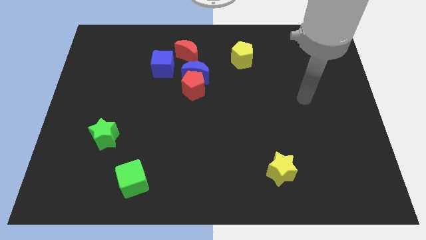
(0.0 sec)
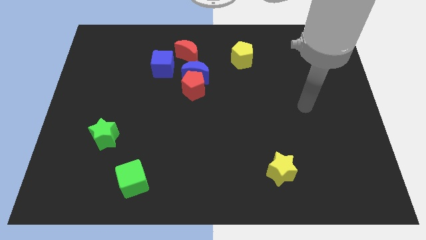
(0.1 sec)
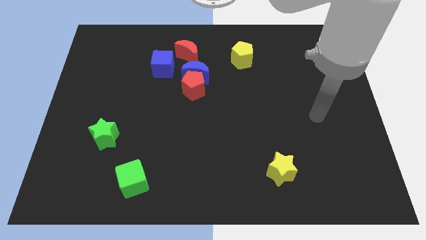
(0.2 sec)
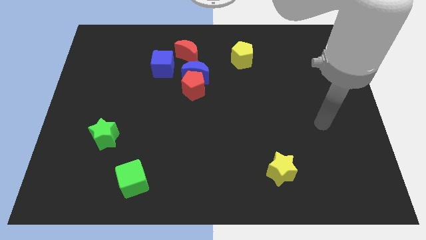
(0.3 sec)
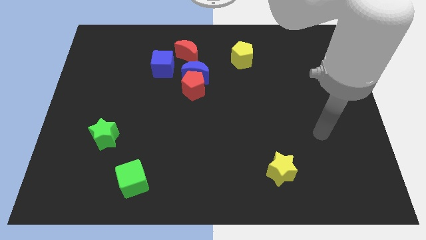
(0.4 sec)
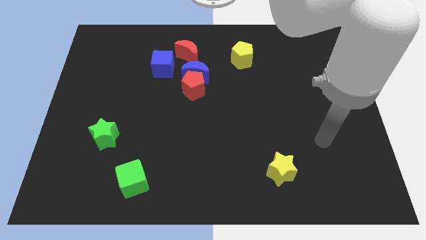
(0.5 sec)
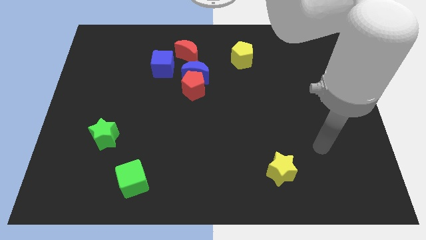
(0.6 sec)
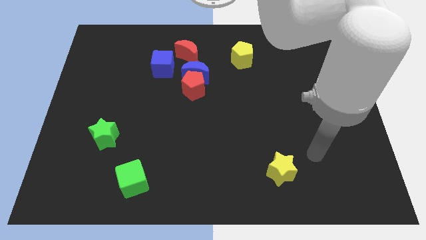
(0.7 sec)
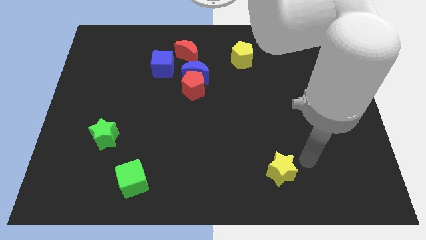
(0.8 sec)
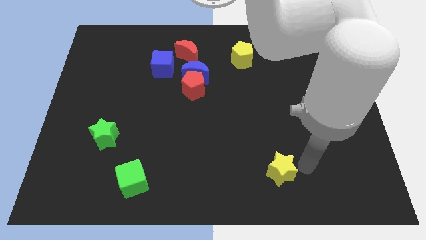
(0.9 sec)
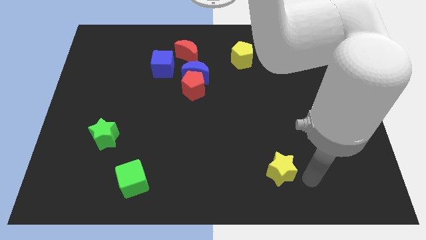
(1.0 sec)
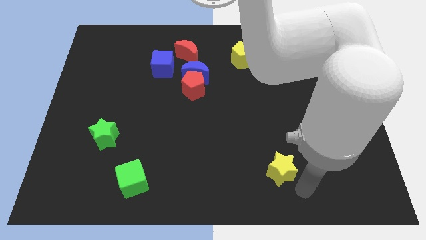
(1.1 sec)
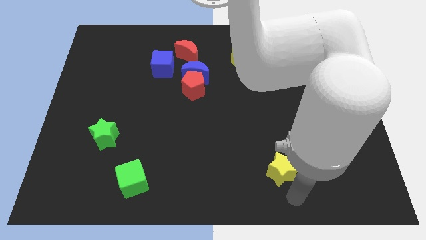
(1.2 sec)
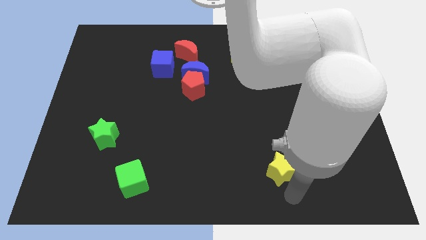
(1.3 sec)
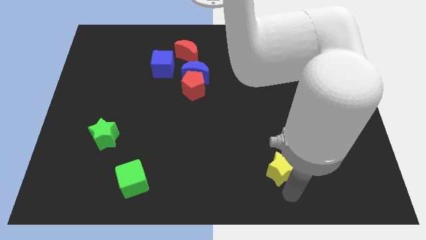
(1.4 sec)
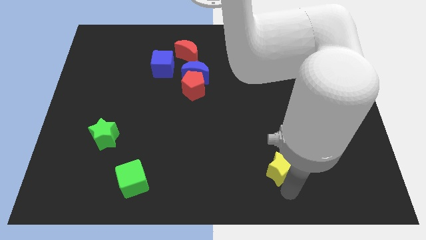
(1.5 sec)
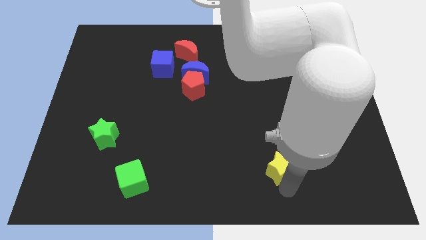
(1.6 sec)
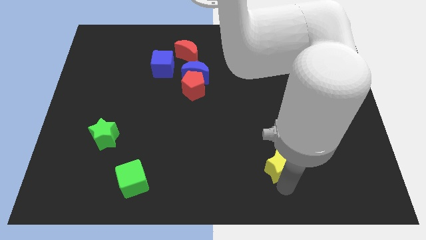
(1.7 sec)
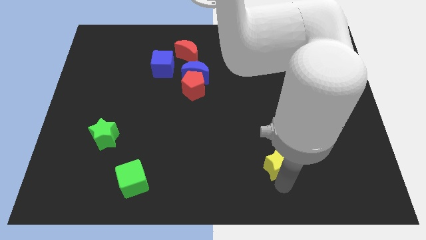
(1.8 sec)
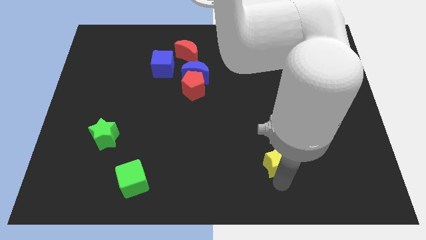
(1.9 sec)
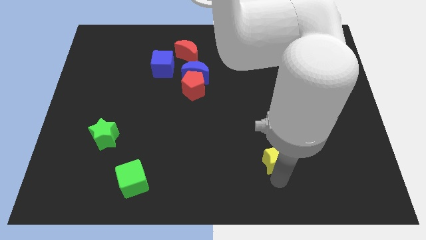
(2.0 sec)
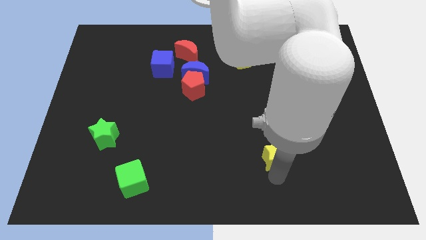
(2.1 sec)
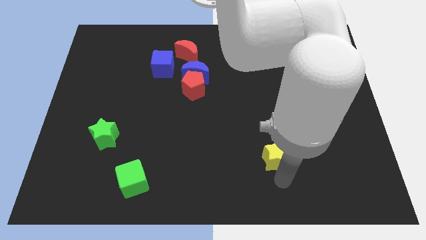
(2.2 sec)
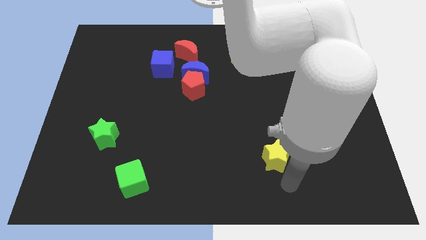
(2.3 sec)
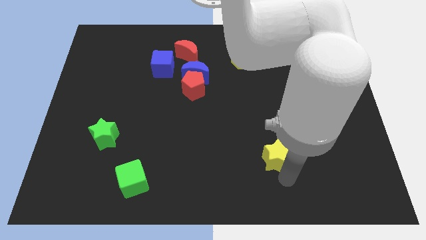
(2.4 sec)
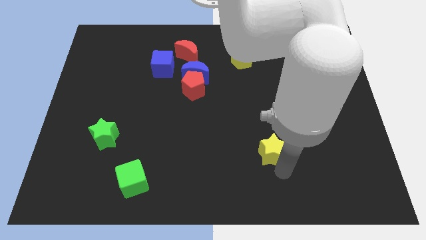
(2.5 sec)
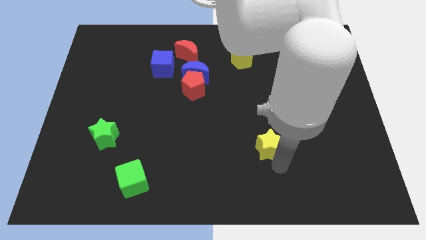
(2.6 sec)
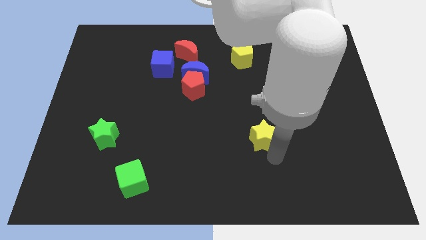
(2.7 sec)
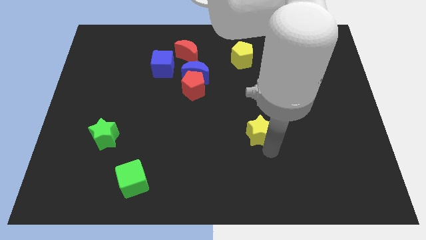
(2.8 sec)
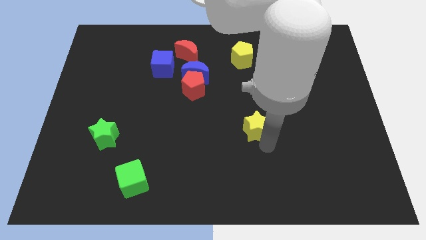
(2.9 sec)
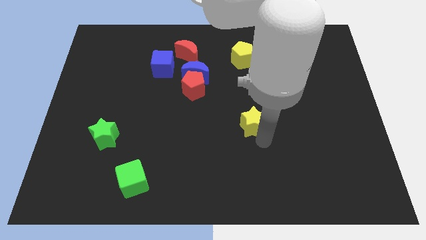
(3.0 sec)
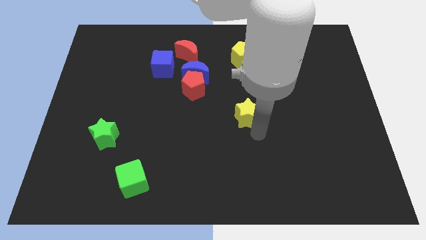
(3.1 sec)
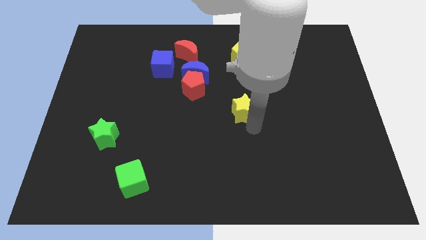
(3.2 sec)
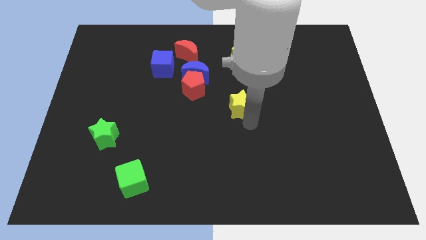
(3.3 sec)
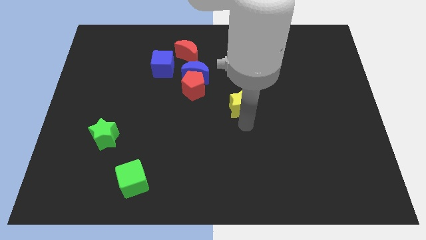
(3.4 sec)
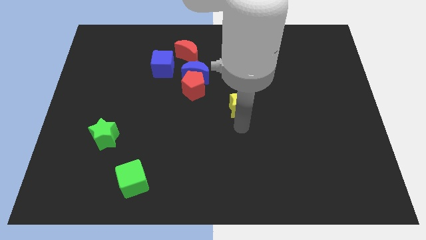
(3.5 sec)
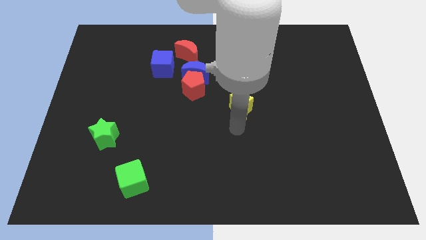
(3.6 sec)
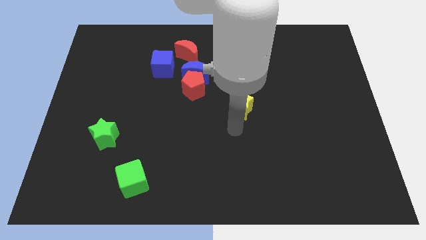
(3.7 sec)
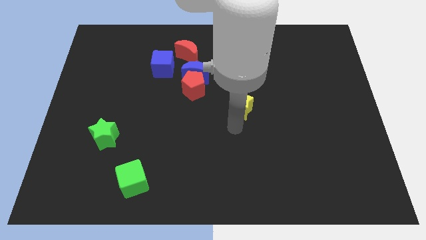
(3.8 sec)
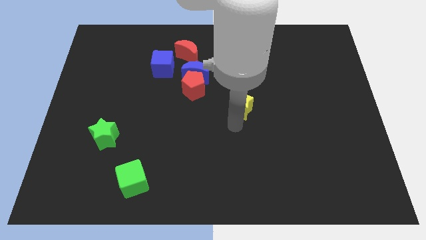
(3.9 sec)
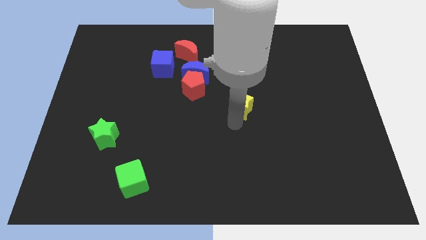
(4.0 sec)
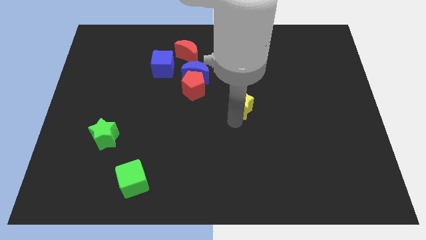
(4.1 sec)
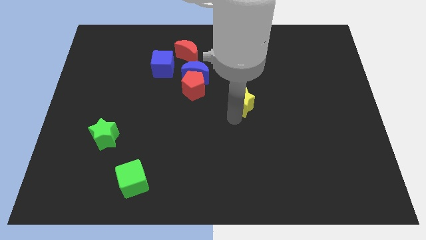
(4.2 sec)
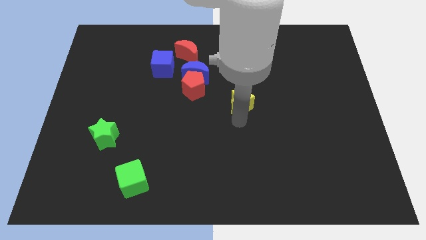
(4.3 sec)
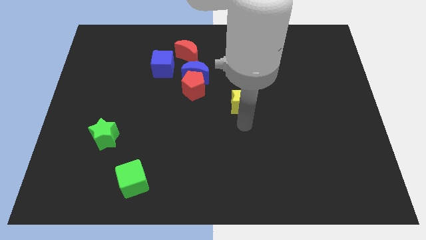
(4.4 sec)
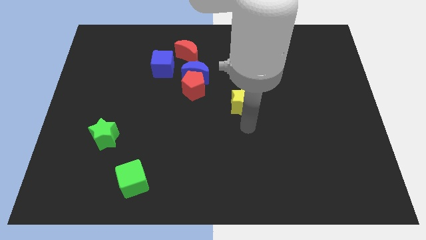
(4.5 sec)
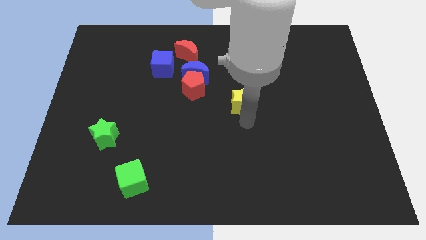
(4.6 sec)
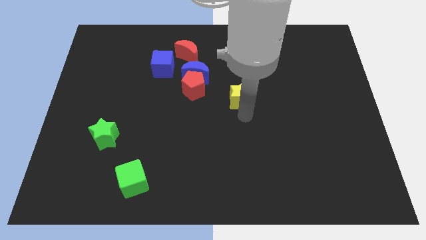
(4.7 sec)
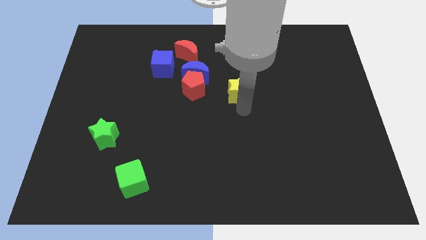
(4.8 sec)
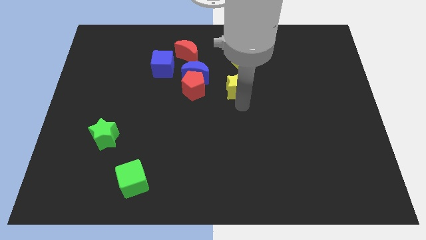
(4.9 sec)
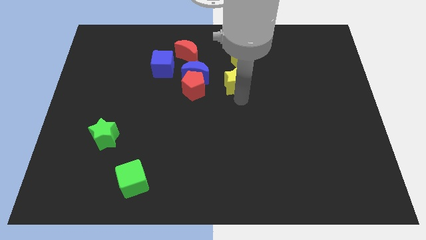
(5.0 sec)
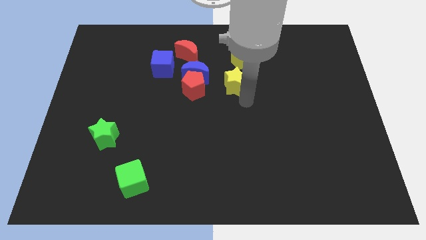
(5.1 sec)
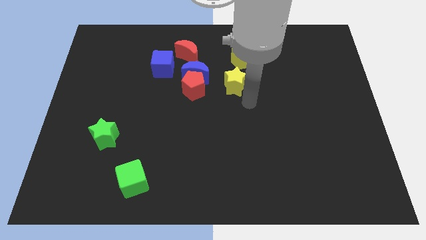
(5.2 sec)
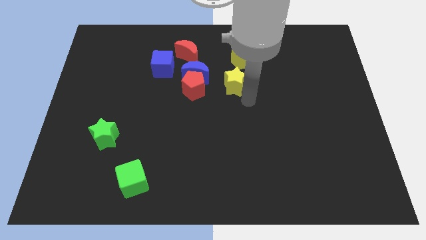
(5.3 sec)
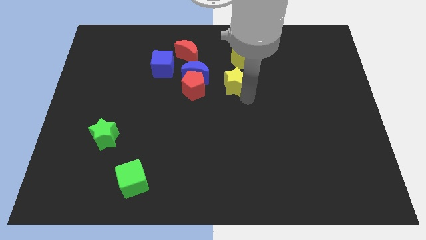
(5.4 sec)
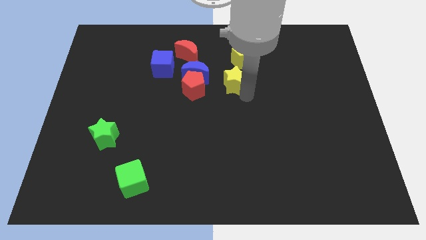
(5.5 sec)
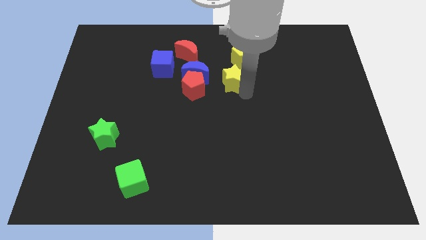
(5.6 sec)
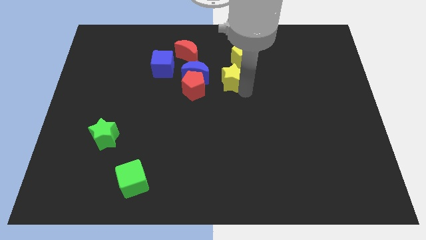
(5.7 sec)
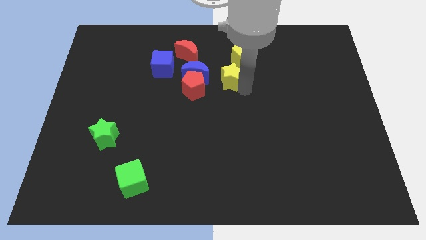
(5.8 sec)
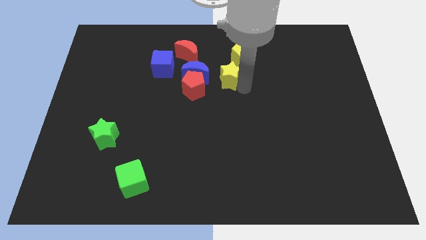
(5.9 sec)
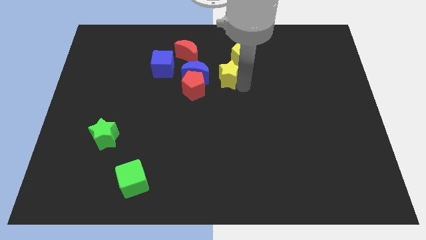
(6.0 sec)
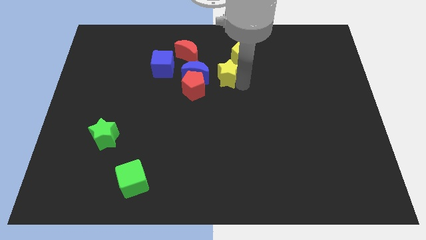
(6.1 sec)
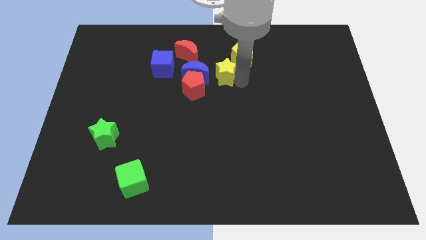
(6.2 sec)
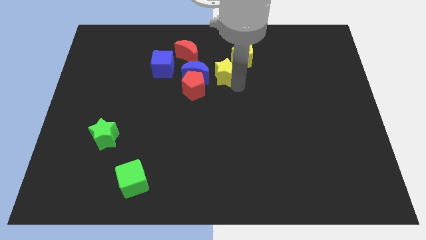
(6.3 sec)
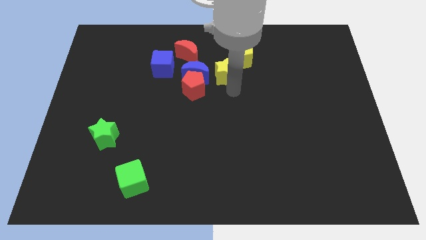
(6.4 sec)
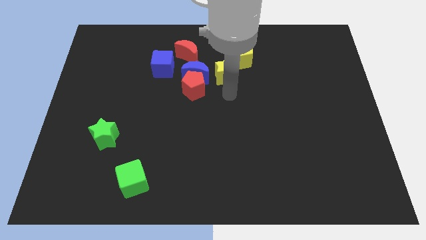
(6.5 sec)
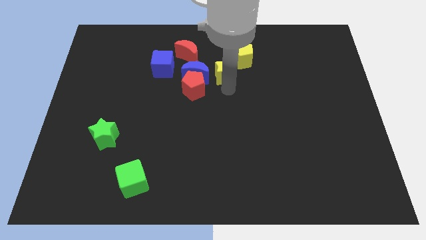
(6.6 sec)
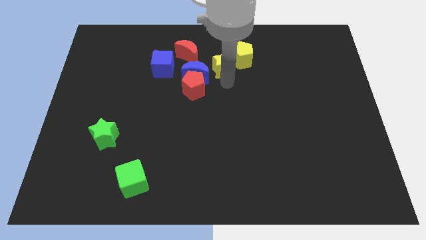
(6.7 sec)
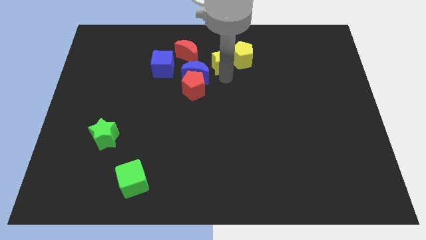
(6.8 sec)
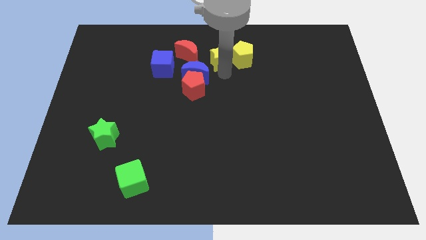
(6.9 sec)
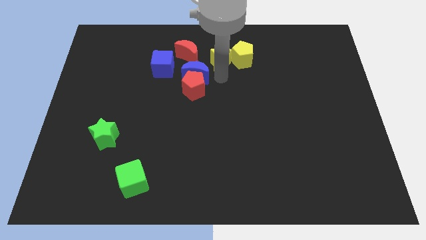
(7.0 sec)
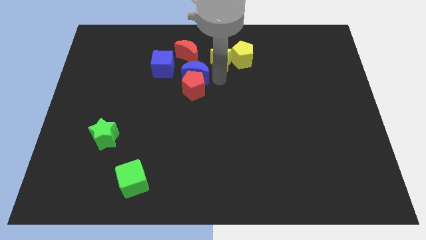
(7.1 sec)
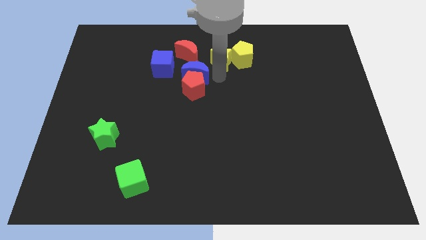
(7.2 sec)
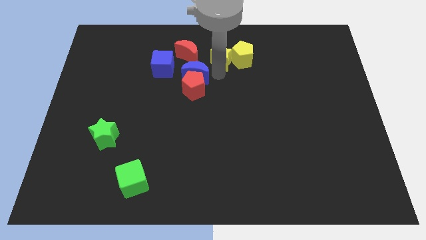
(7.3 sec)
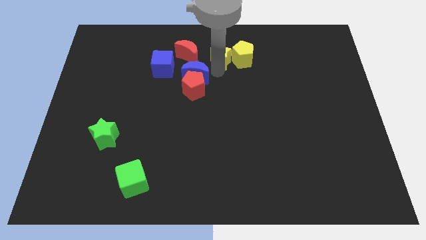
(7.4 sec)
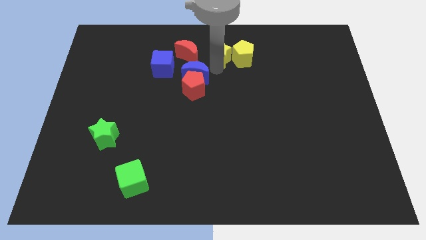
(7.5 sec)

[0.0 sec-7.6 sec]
slide the yellow star to the towards your base
